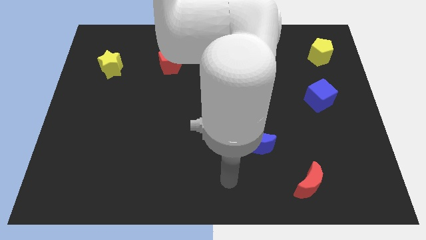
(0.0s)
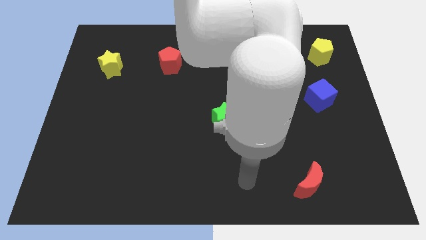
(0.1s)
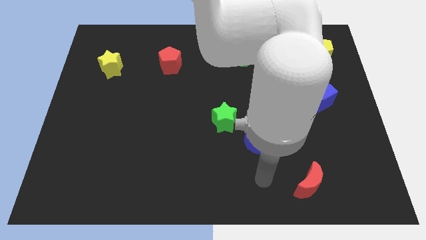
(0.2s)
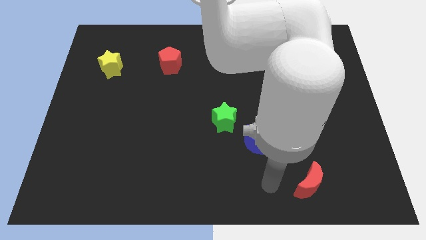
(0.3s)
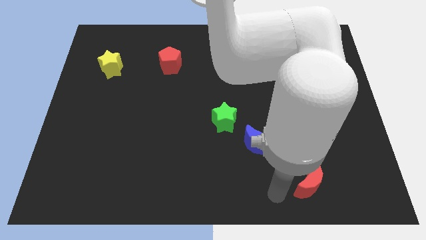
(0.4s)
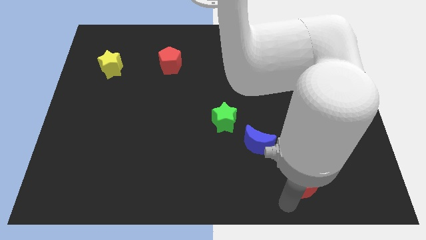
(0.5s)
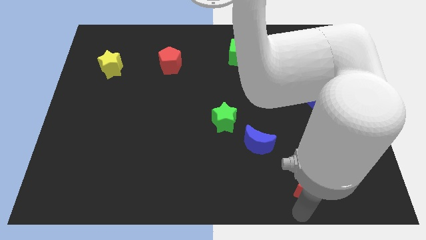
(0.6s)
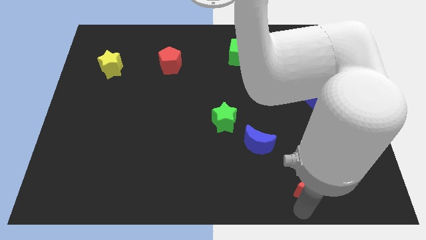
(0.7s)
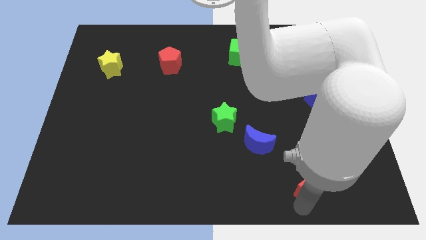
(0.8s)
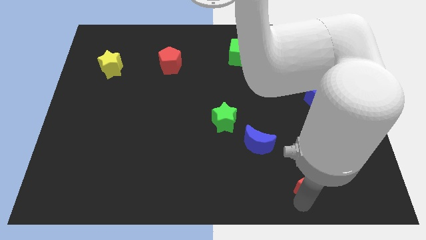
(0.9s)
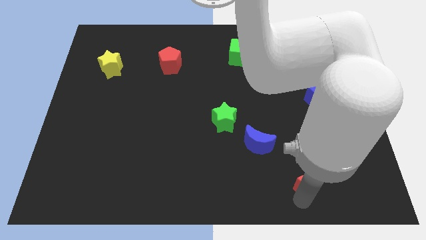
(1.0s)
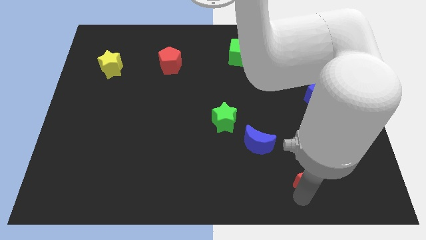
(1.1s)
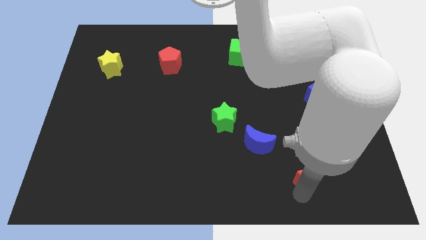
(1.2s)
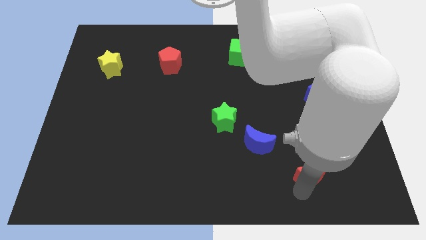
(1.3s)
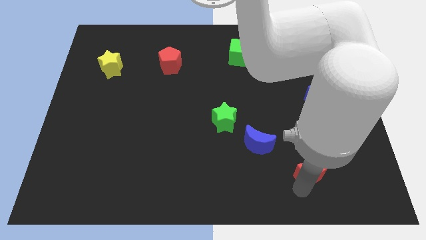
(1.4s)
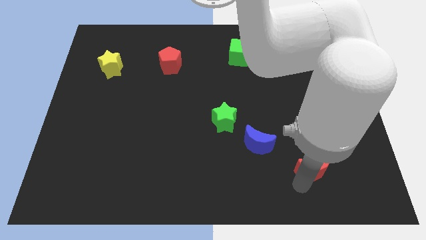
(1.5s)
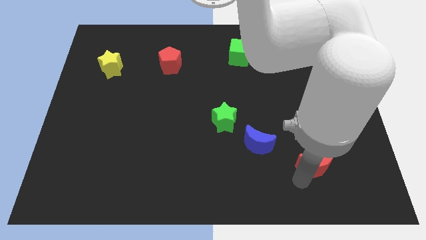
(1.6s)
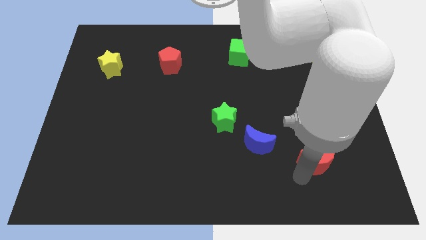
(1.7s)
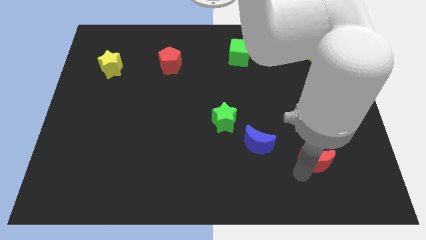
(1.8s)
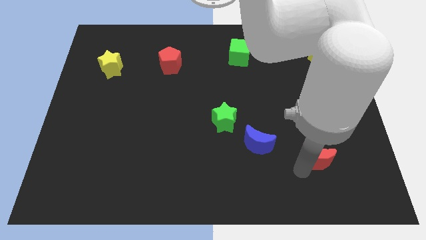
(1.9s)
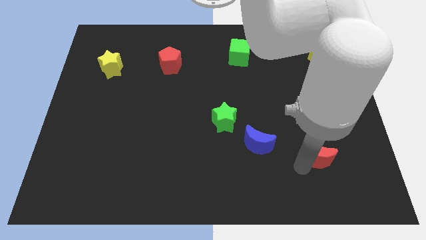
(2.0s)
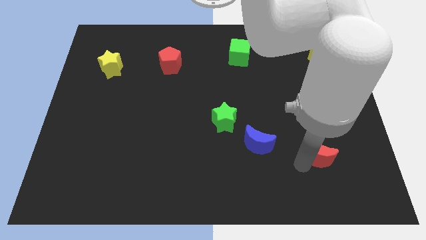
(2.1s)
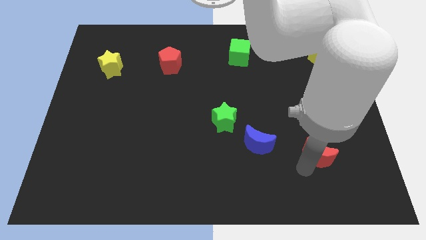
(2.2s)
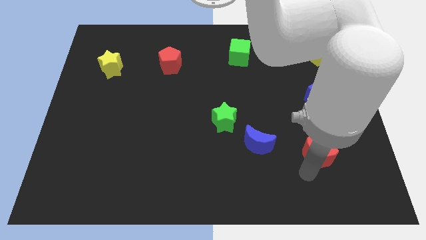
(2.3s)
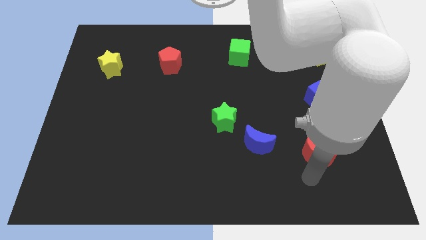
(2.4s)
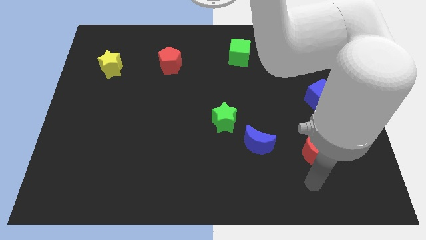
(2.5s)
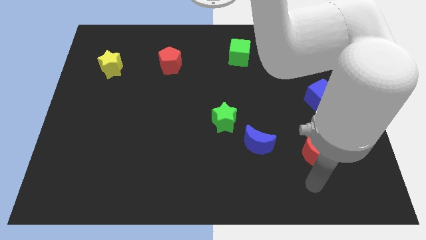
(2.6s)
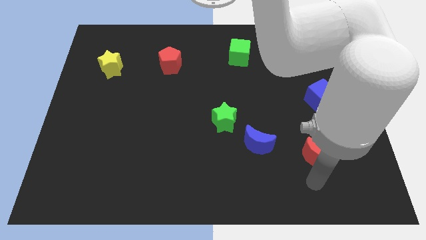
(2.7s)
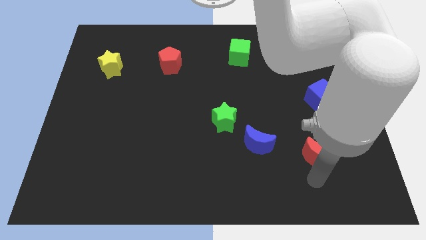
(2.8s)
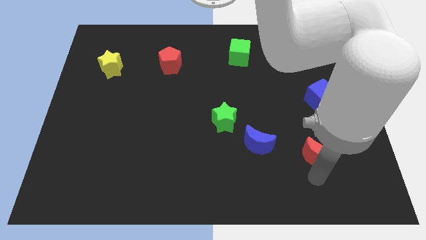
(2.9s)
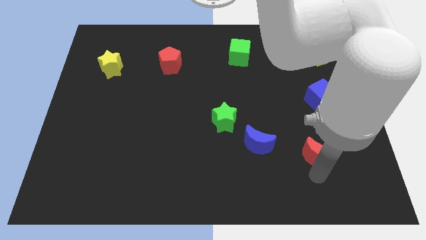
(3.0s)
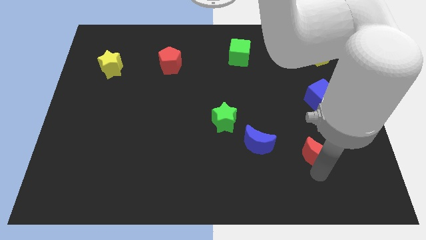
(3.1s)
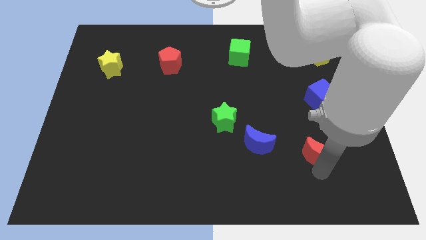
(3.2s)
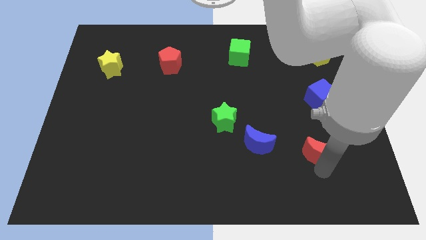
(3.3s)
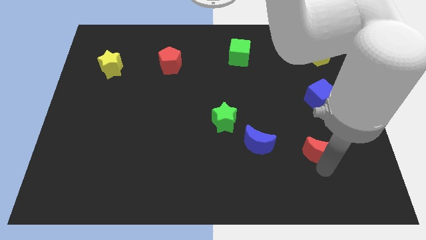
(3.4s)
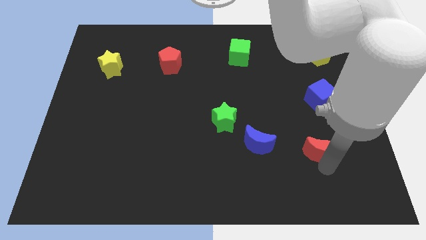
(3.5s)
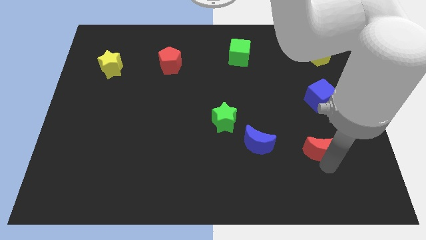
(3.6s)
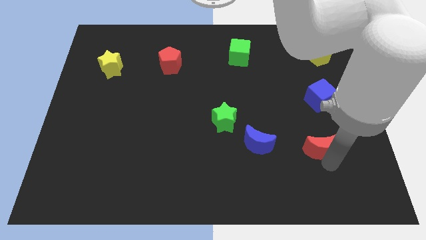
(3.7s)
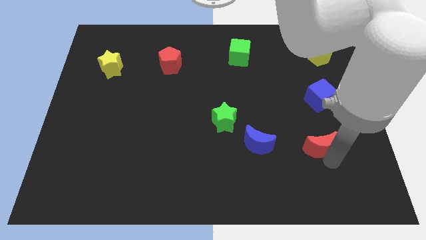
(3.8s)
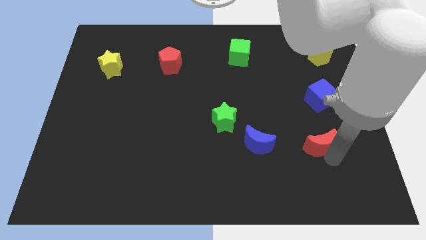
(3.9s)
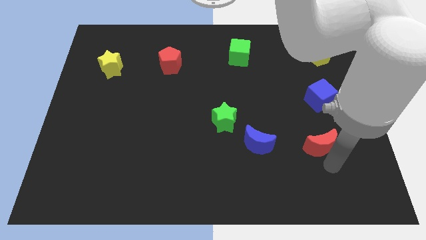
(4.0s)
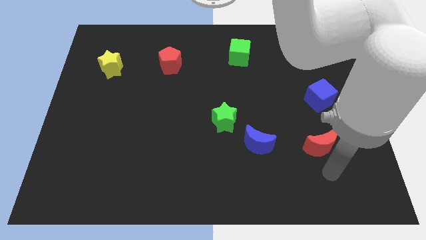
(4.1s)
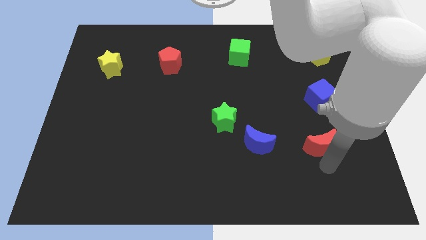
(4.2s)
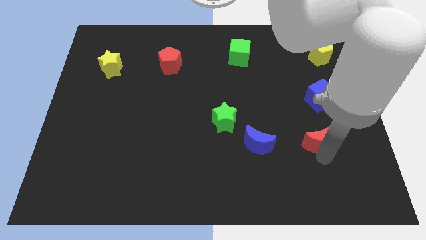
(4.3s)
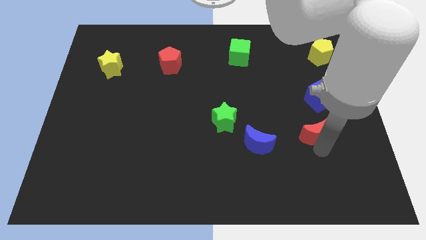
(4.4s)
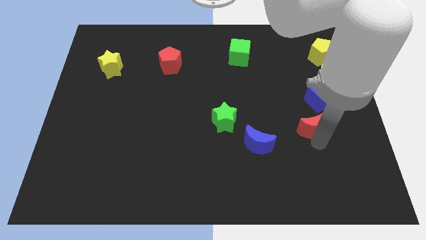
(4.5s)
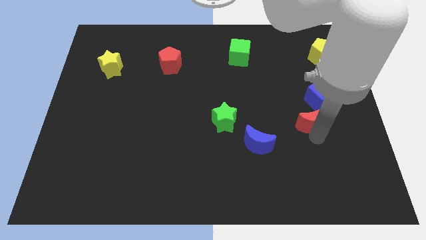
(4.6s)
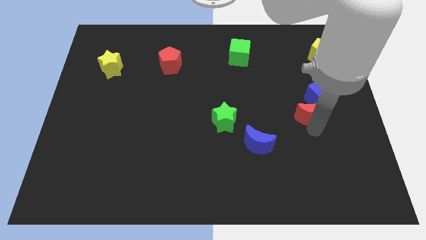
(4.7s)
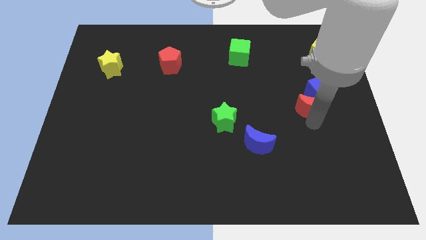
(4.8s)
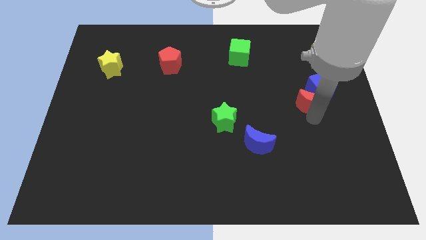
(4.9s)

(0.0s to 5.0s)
push the red moon up

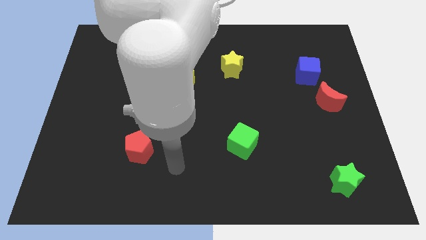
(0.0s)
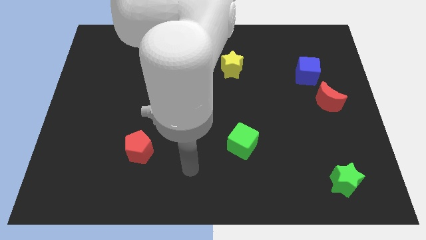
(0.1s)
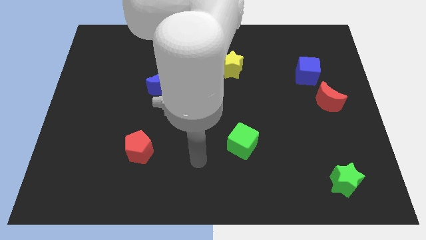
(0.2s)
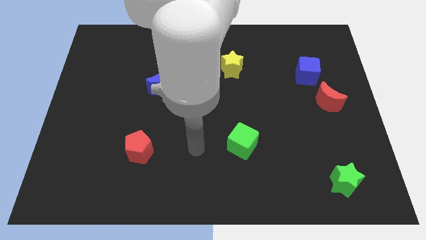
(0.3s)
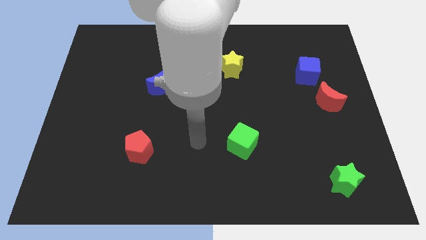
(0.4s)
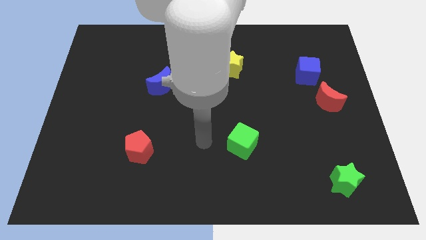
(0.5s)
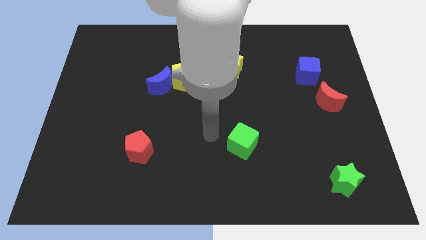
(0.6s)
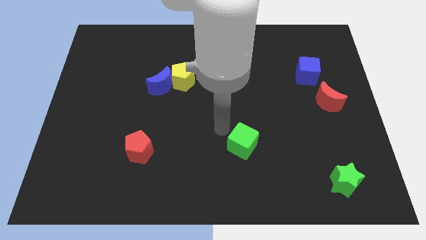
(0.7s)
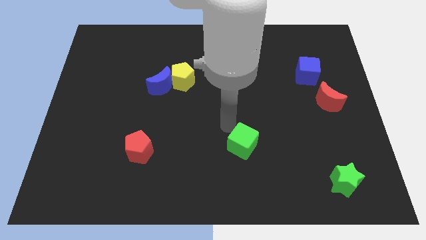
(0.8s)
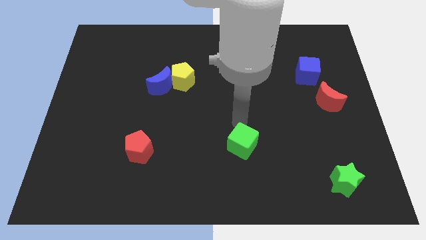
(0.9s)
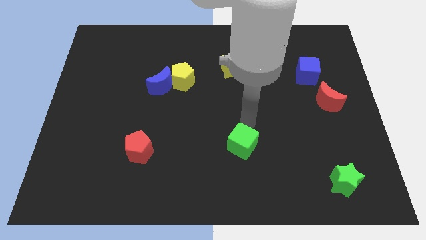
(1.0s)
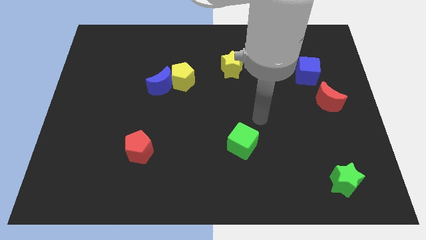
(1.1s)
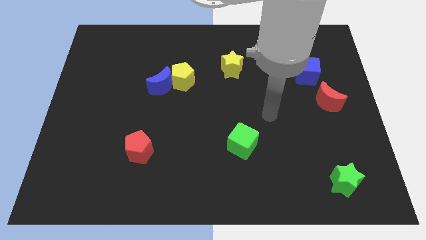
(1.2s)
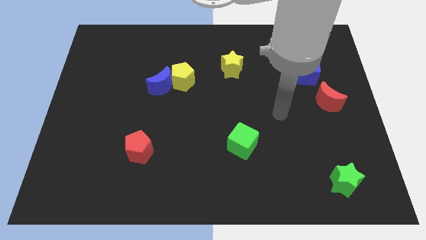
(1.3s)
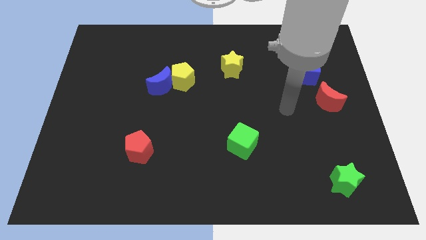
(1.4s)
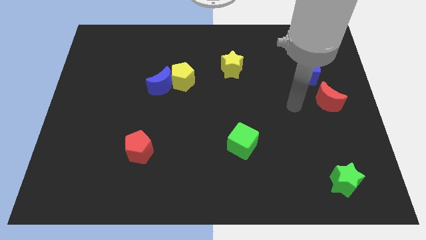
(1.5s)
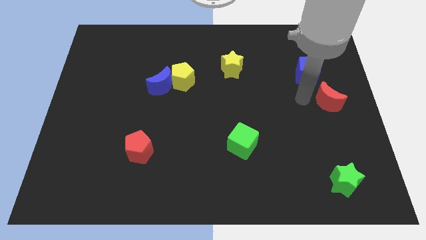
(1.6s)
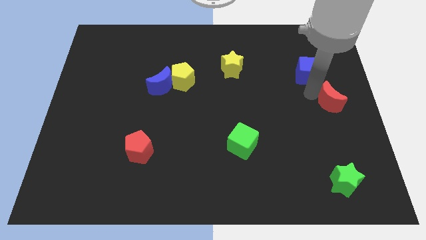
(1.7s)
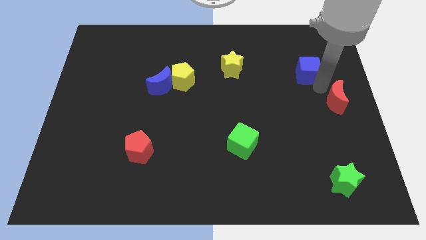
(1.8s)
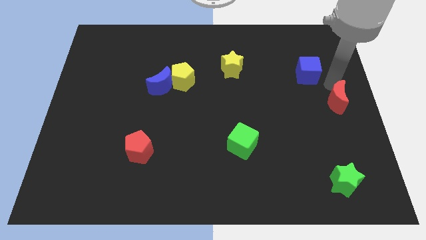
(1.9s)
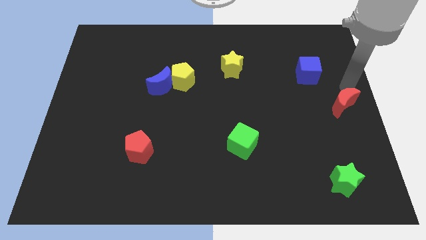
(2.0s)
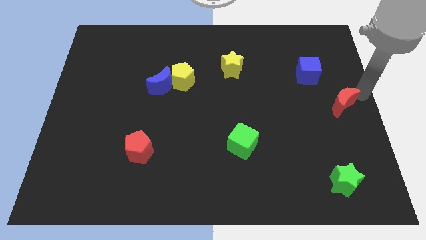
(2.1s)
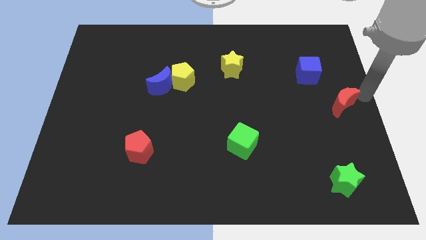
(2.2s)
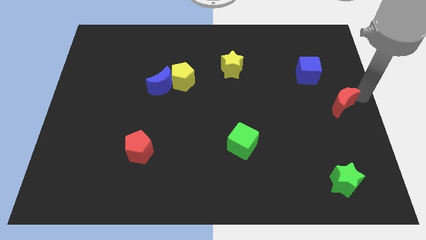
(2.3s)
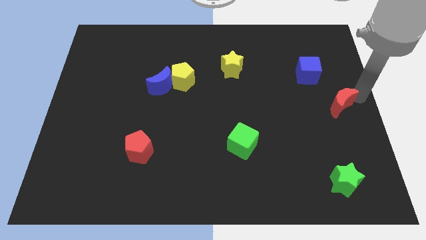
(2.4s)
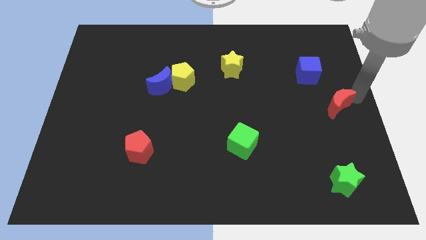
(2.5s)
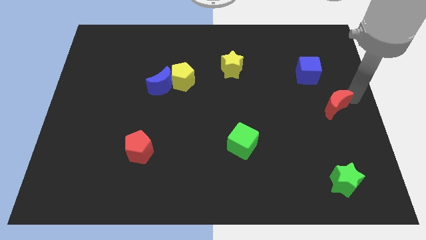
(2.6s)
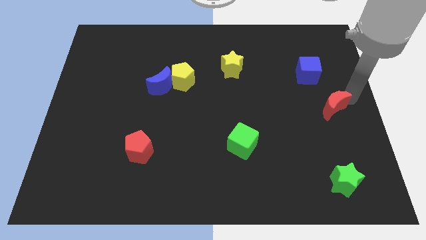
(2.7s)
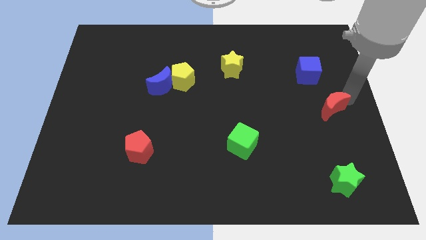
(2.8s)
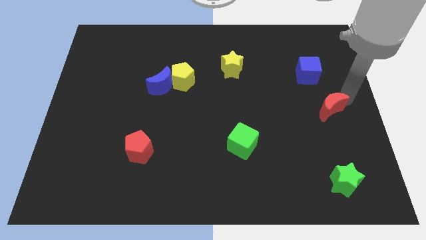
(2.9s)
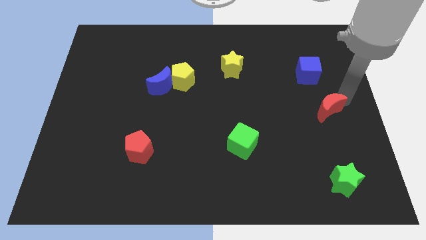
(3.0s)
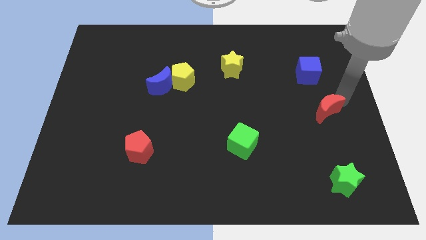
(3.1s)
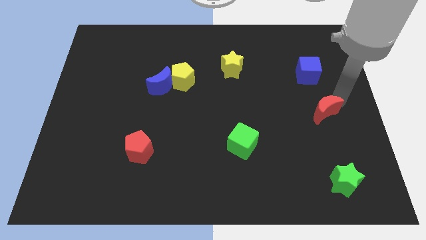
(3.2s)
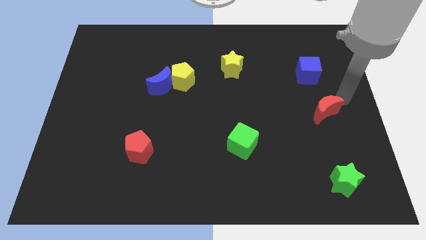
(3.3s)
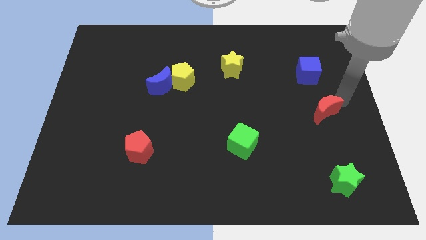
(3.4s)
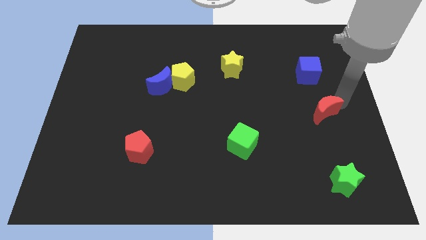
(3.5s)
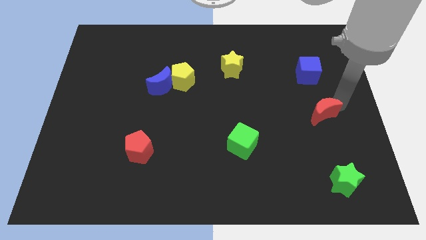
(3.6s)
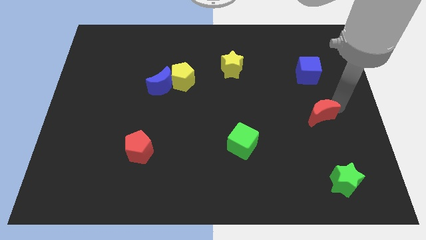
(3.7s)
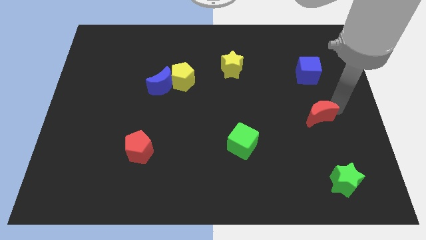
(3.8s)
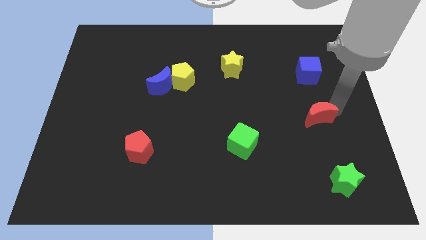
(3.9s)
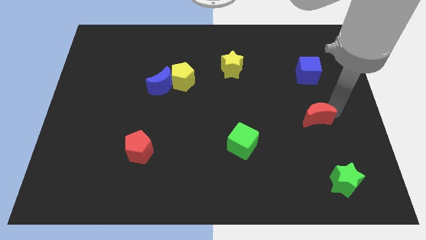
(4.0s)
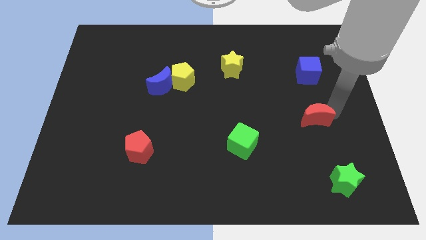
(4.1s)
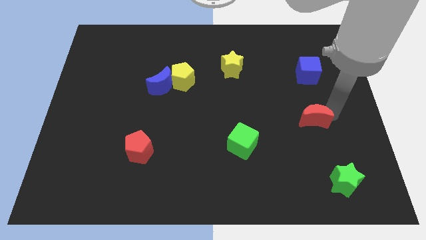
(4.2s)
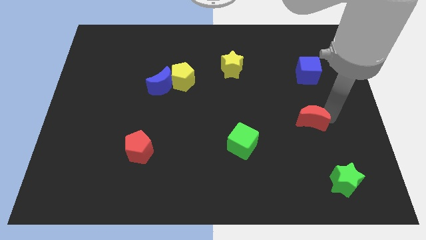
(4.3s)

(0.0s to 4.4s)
slide the red moon downwards and left slightly
